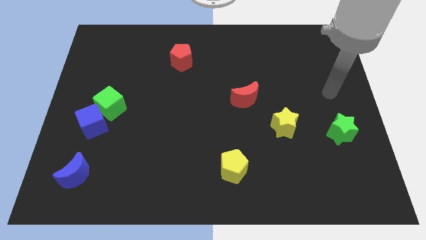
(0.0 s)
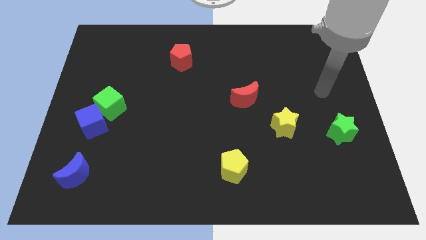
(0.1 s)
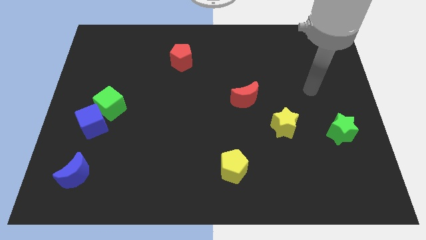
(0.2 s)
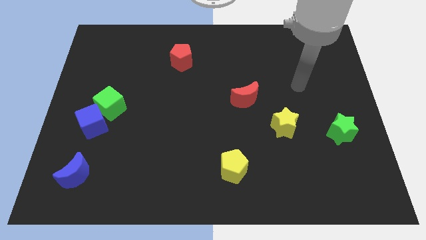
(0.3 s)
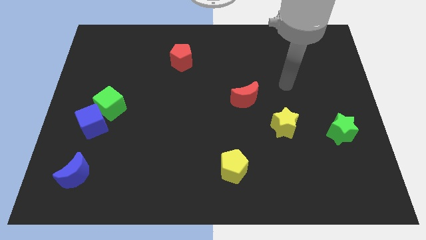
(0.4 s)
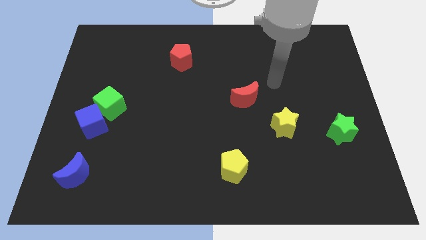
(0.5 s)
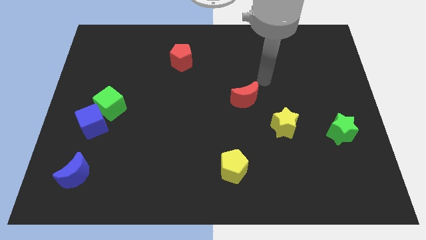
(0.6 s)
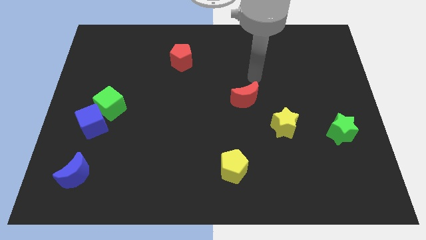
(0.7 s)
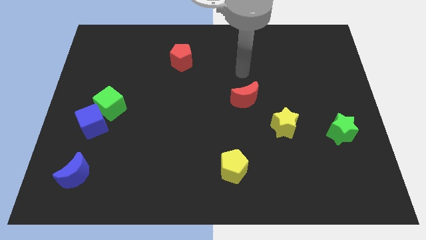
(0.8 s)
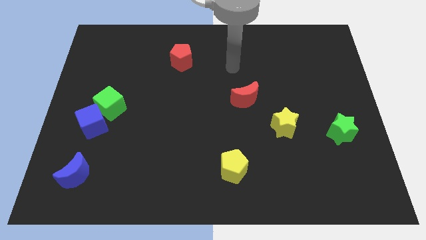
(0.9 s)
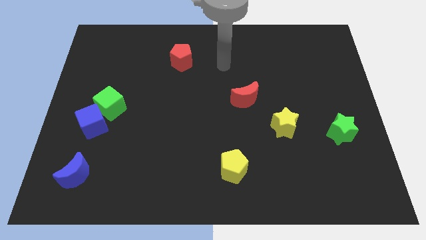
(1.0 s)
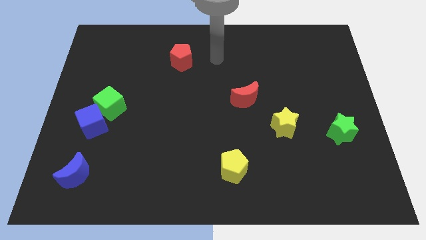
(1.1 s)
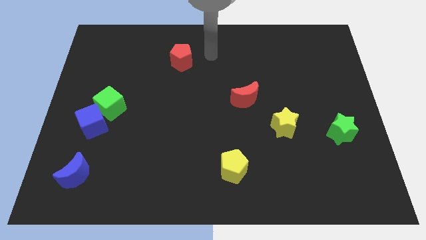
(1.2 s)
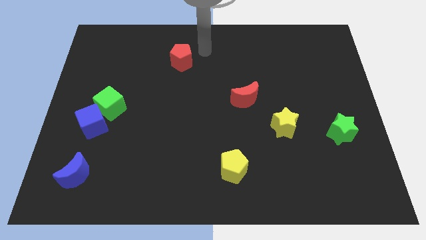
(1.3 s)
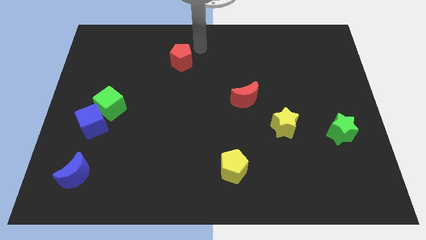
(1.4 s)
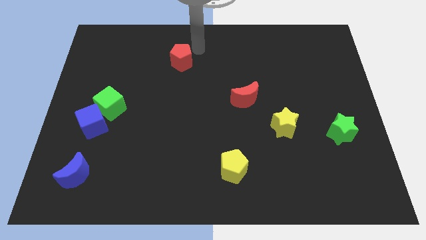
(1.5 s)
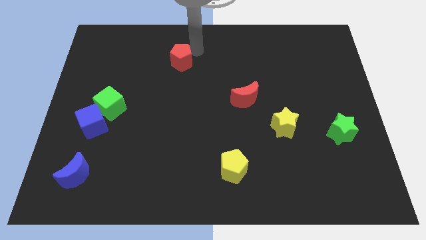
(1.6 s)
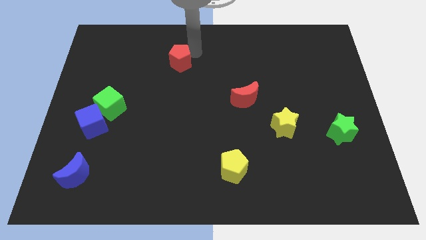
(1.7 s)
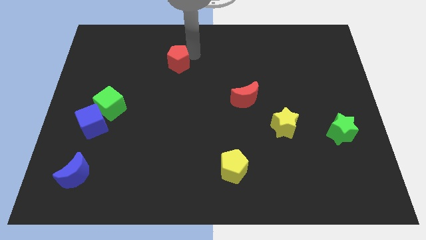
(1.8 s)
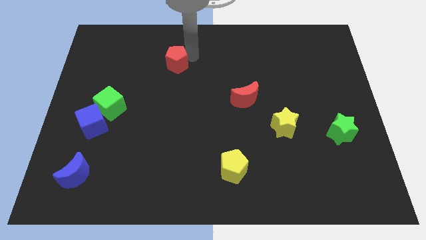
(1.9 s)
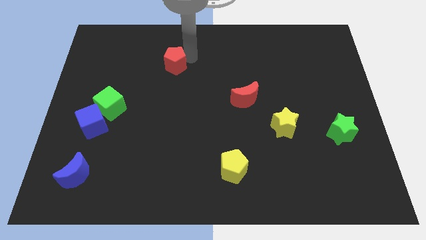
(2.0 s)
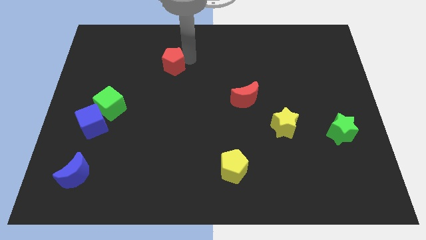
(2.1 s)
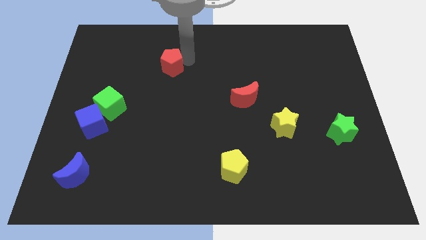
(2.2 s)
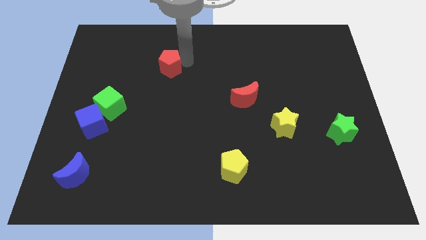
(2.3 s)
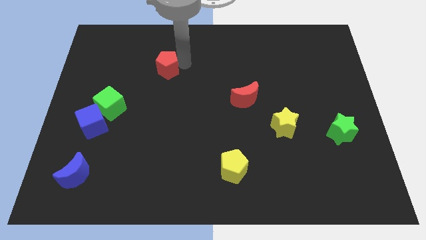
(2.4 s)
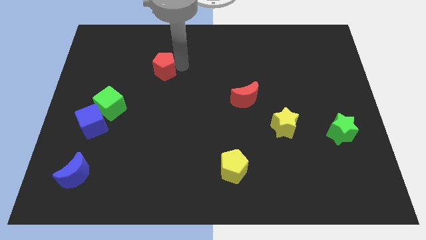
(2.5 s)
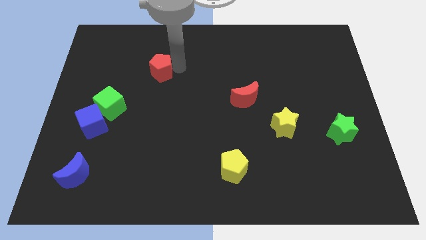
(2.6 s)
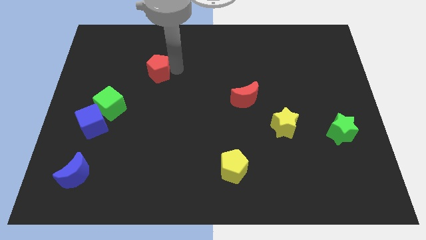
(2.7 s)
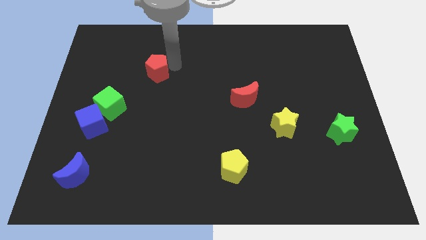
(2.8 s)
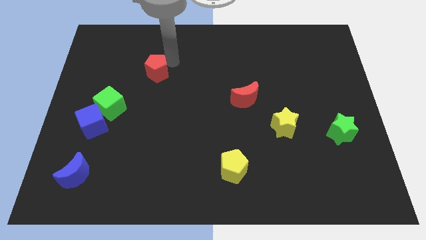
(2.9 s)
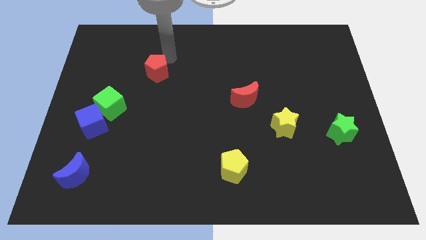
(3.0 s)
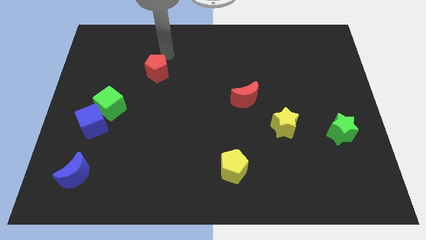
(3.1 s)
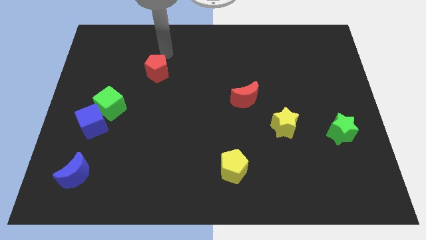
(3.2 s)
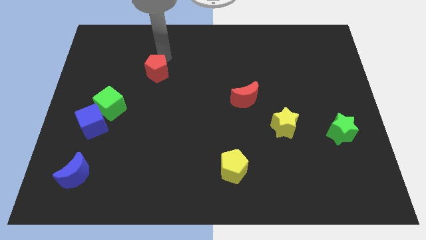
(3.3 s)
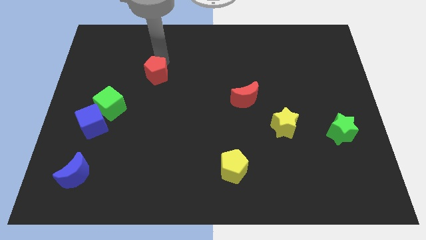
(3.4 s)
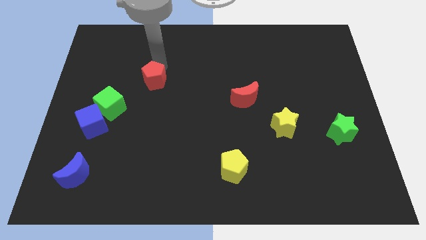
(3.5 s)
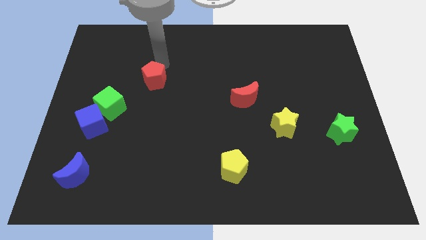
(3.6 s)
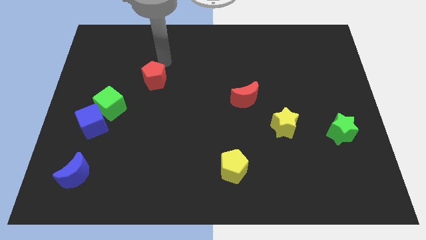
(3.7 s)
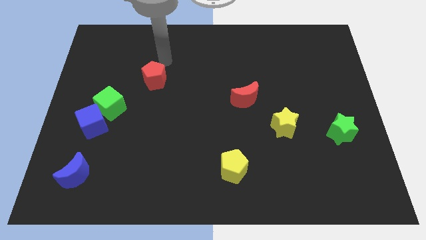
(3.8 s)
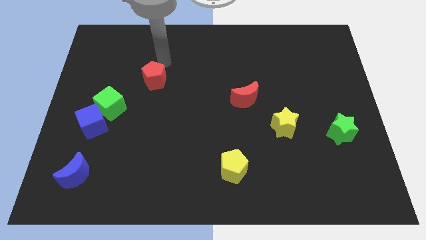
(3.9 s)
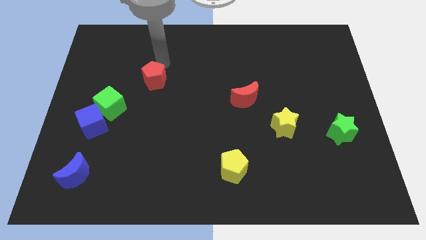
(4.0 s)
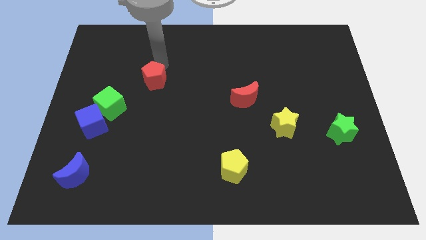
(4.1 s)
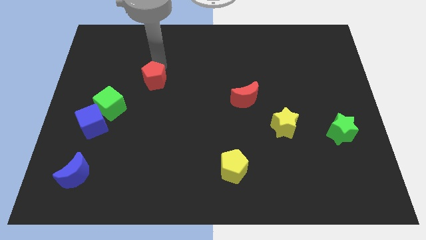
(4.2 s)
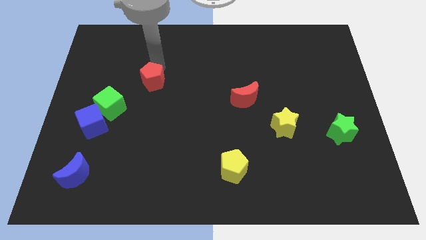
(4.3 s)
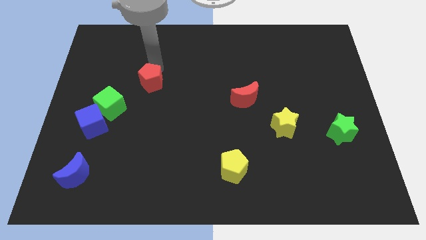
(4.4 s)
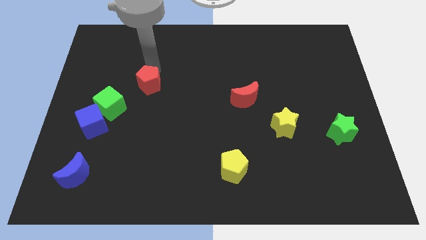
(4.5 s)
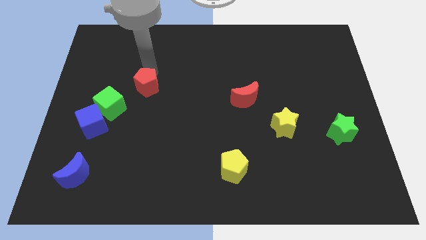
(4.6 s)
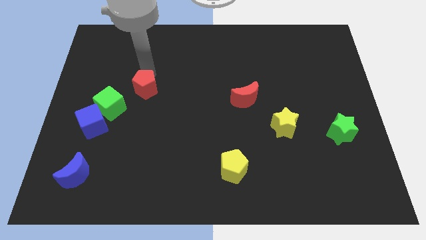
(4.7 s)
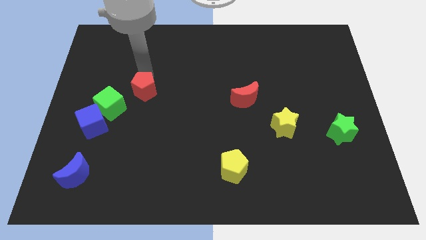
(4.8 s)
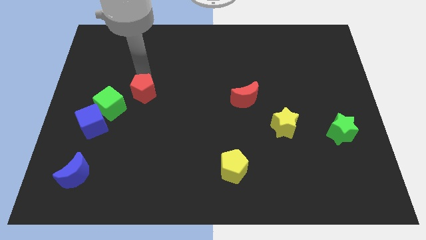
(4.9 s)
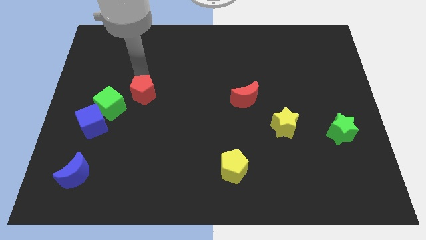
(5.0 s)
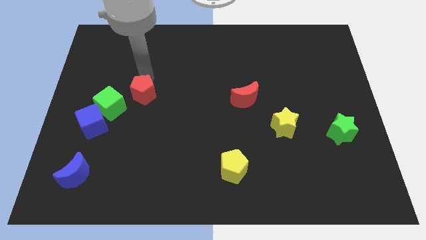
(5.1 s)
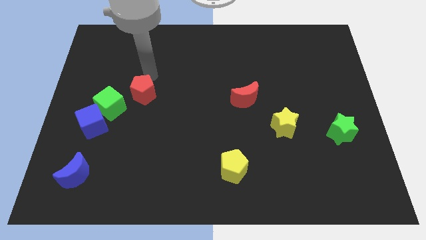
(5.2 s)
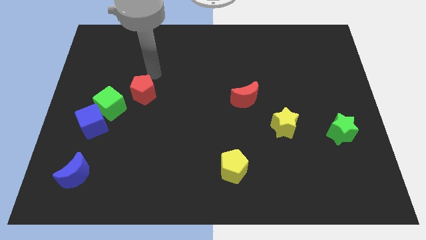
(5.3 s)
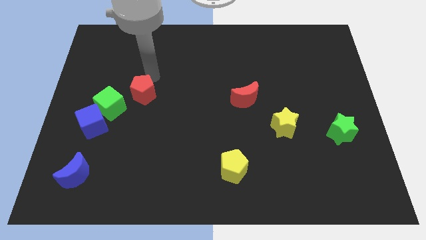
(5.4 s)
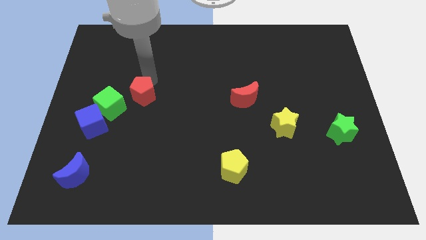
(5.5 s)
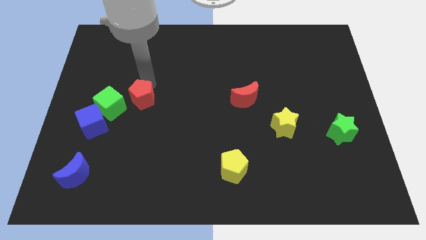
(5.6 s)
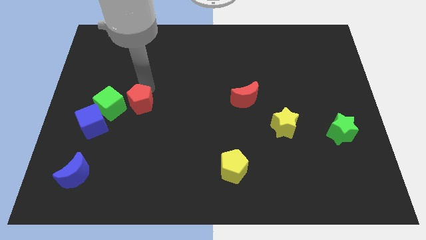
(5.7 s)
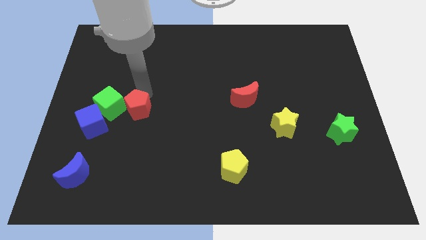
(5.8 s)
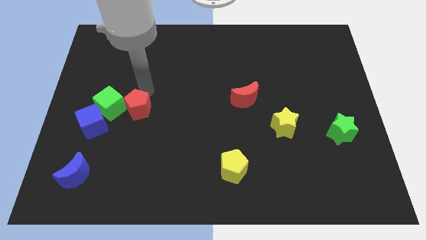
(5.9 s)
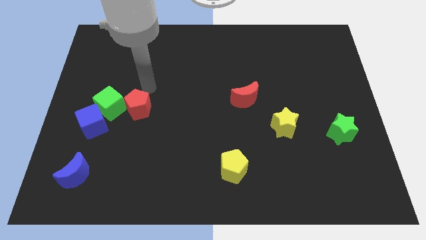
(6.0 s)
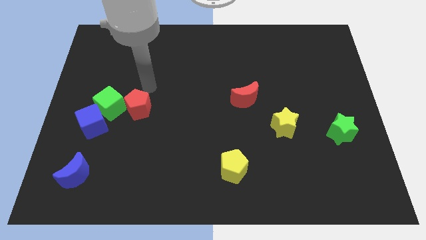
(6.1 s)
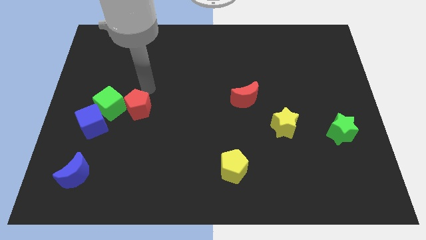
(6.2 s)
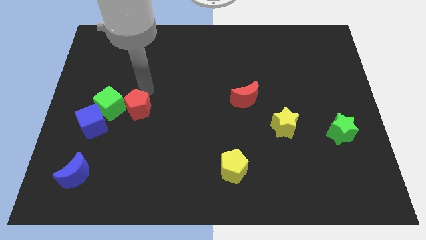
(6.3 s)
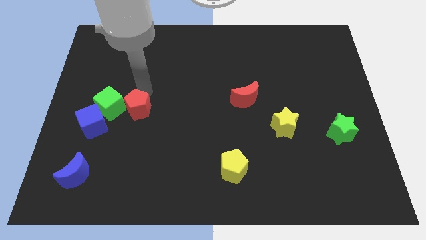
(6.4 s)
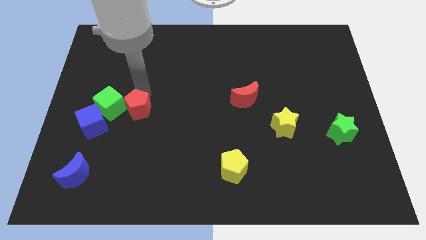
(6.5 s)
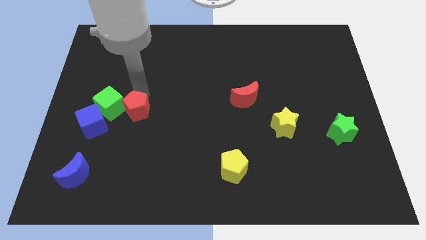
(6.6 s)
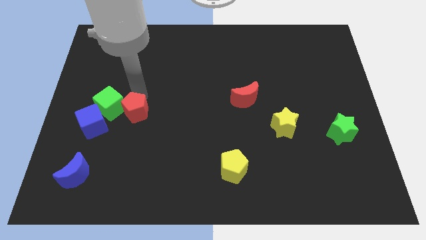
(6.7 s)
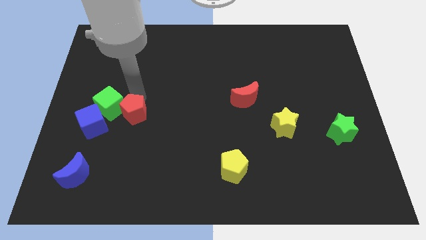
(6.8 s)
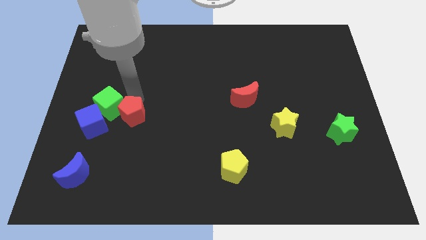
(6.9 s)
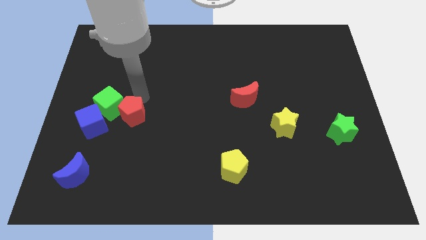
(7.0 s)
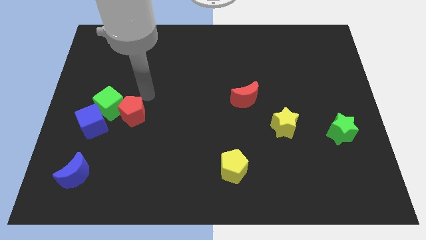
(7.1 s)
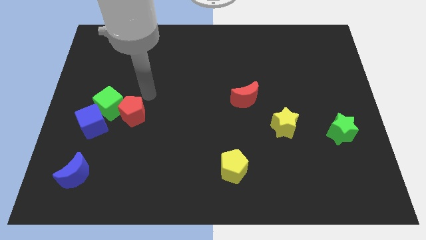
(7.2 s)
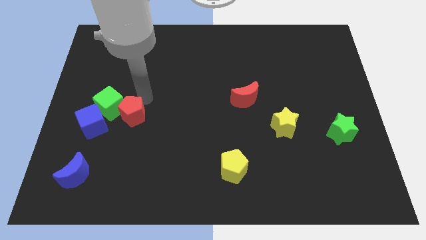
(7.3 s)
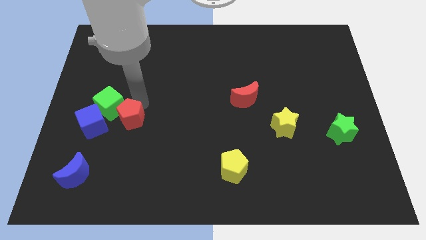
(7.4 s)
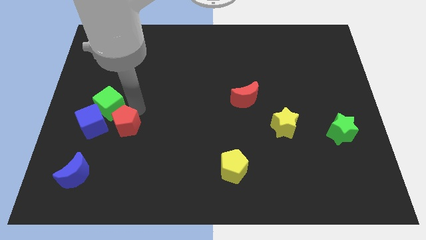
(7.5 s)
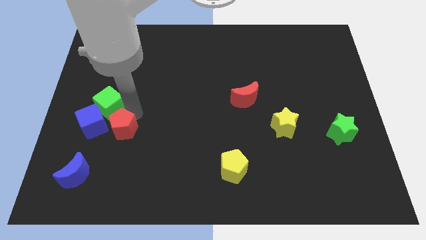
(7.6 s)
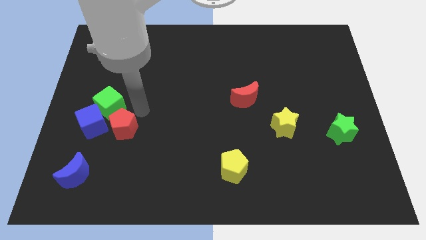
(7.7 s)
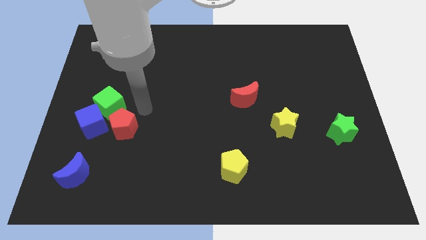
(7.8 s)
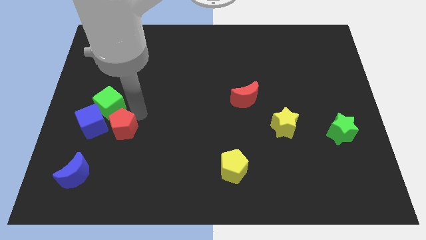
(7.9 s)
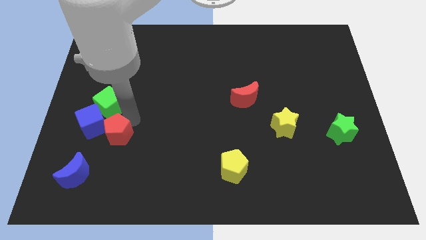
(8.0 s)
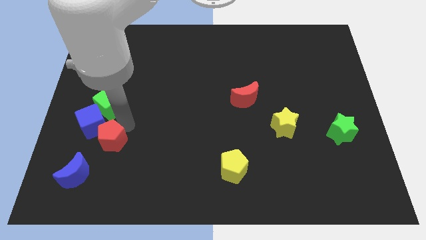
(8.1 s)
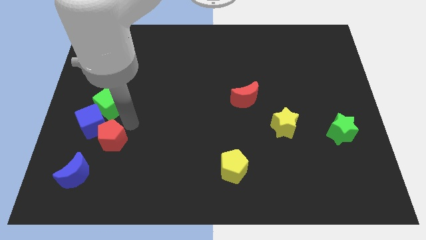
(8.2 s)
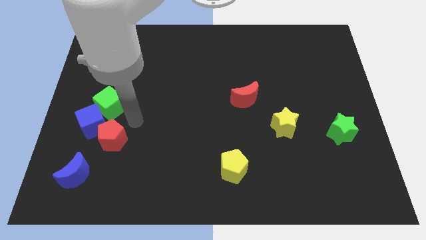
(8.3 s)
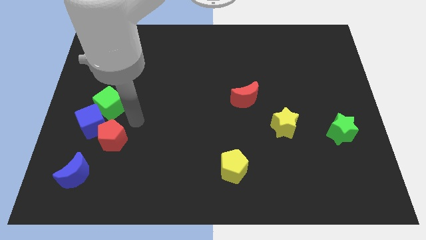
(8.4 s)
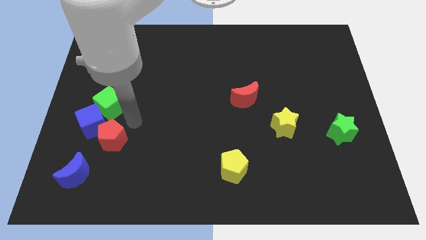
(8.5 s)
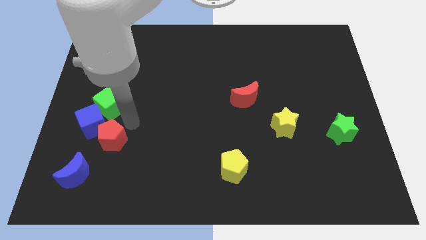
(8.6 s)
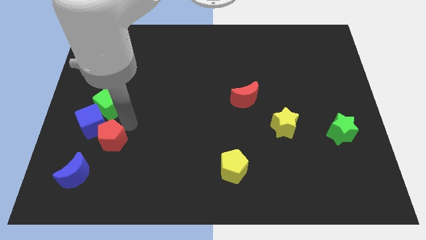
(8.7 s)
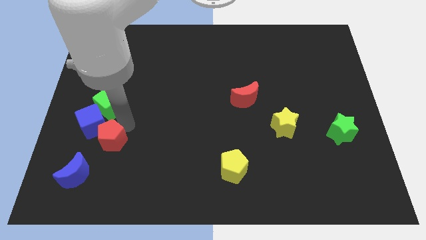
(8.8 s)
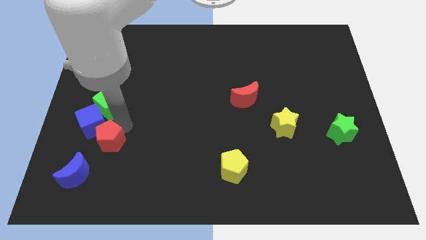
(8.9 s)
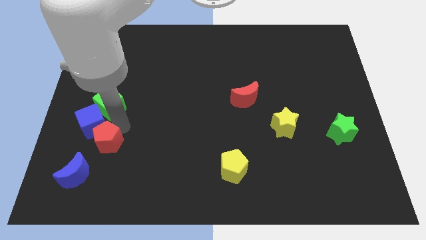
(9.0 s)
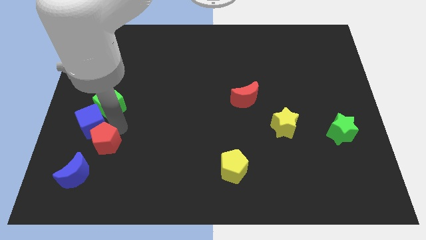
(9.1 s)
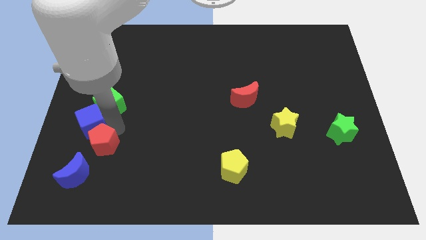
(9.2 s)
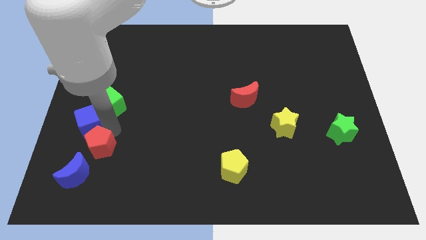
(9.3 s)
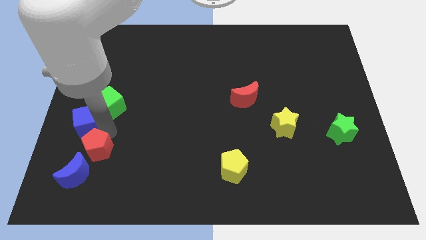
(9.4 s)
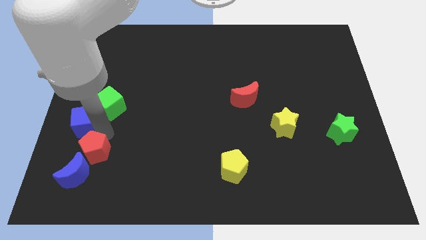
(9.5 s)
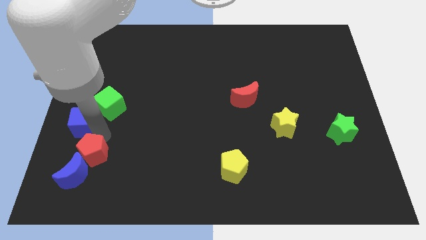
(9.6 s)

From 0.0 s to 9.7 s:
push the red pentagon to the blue moon
